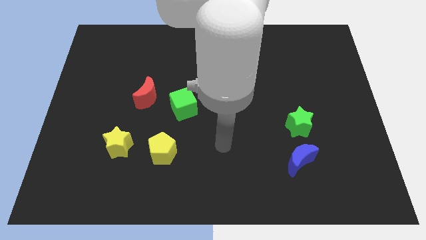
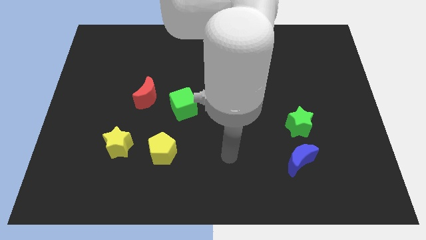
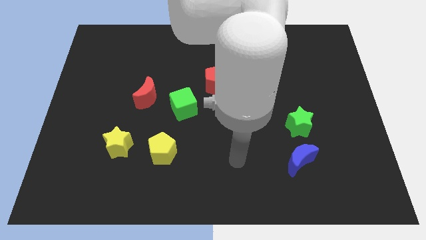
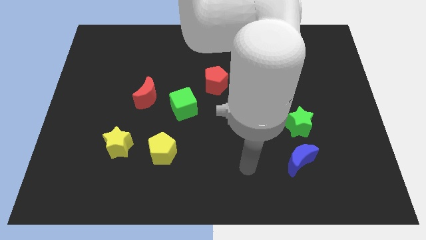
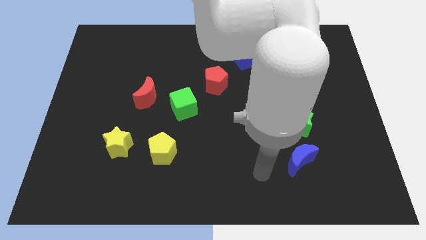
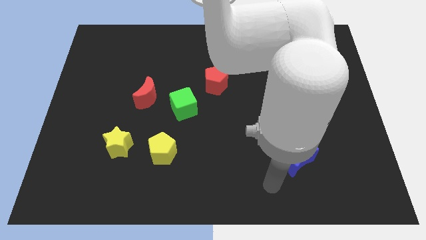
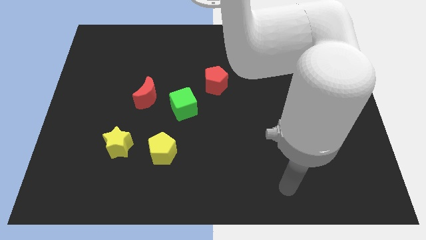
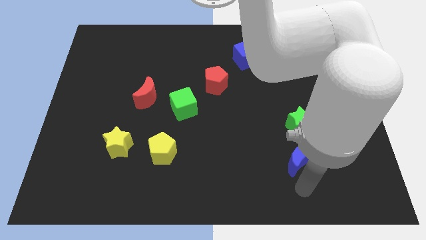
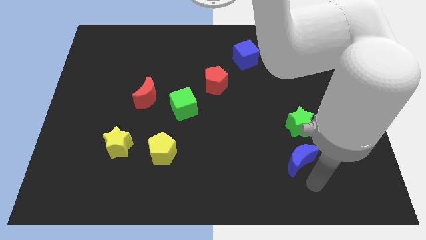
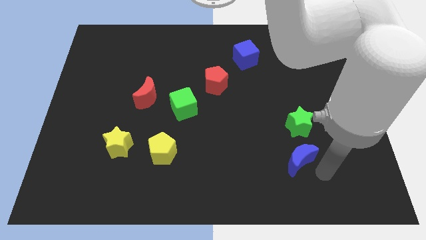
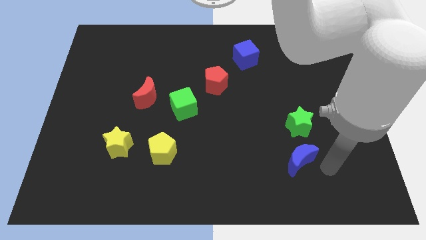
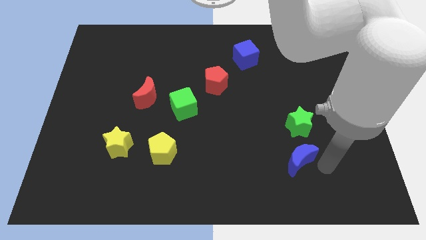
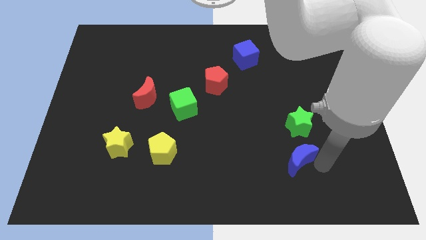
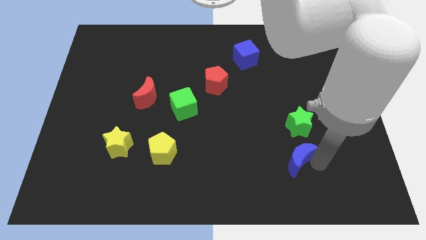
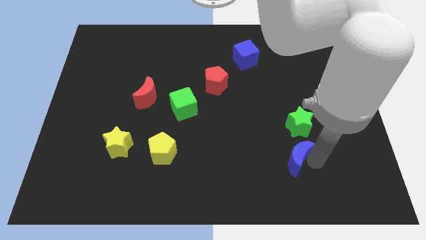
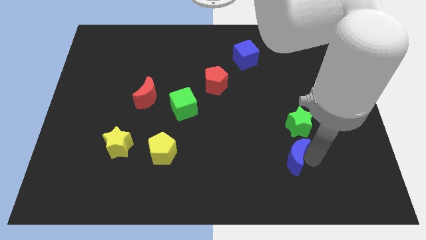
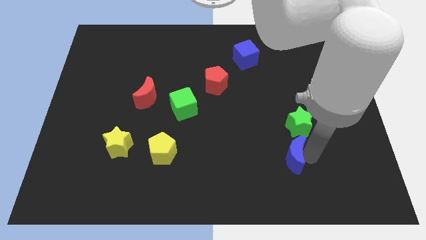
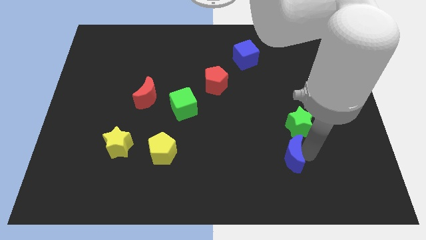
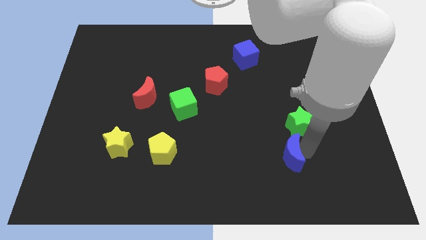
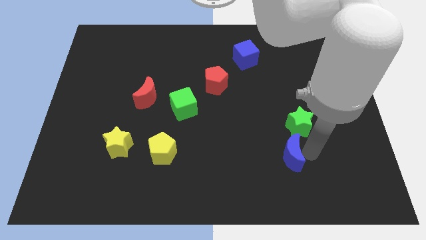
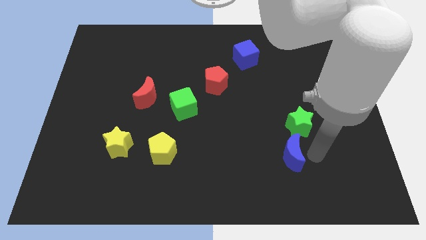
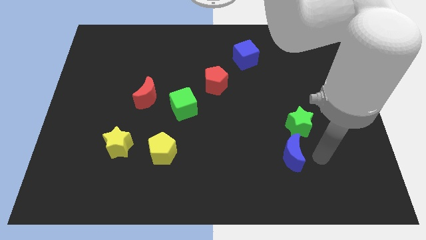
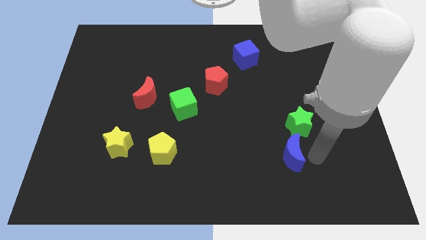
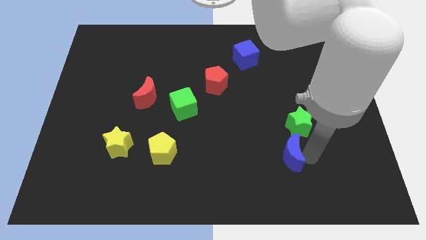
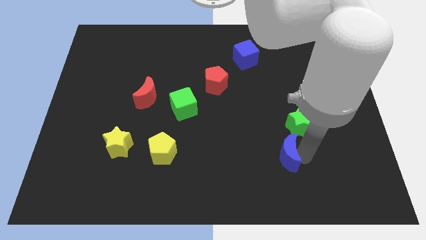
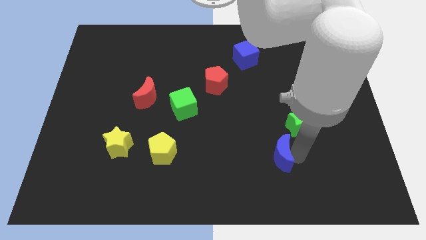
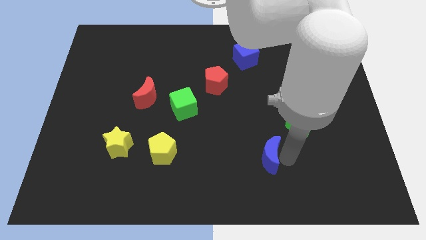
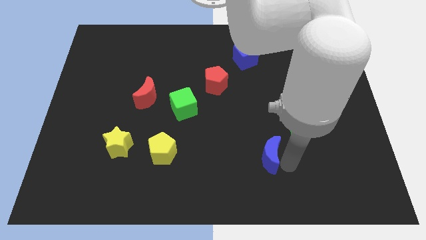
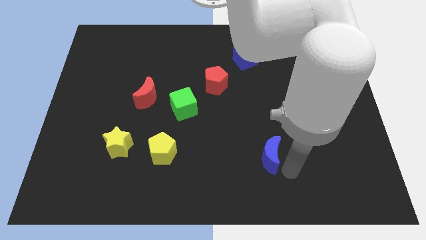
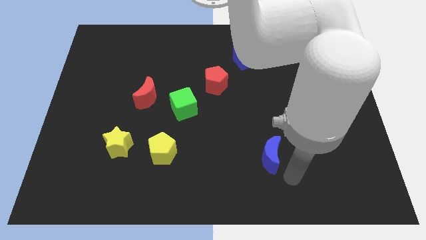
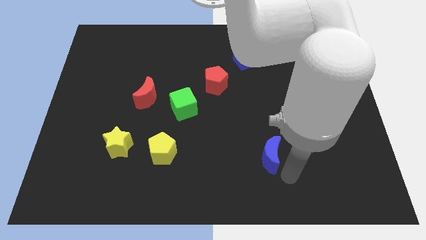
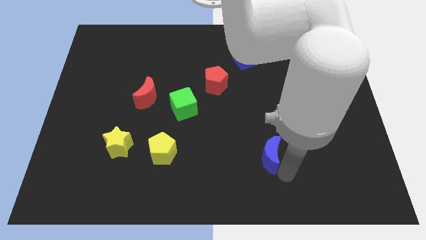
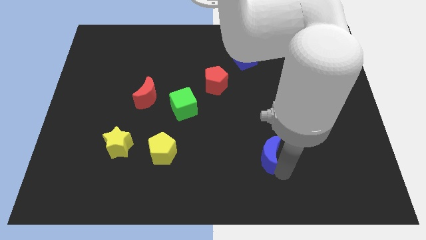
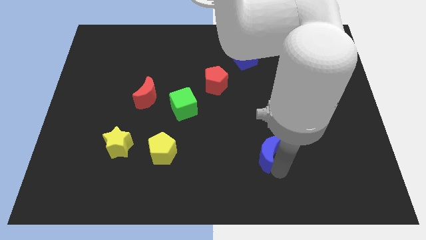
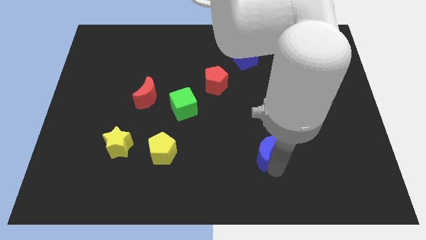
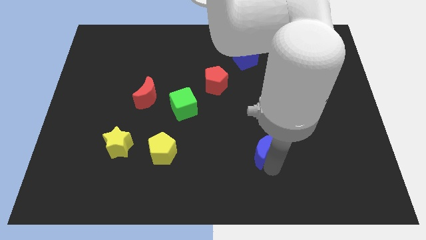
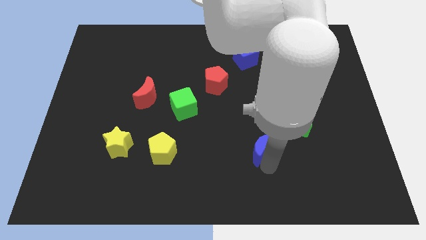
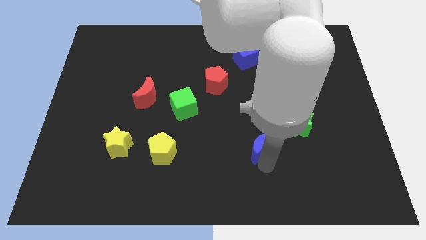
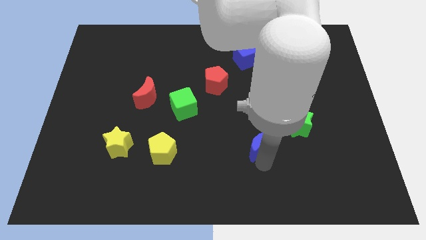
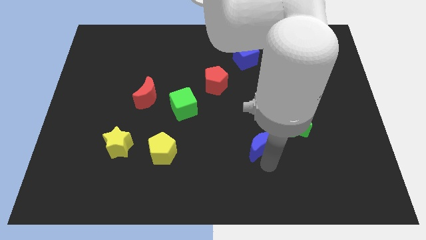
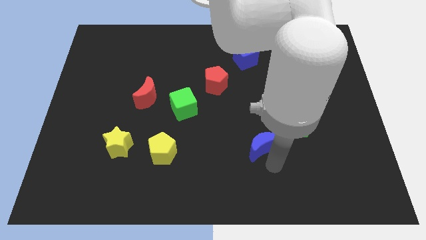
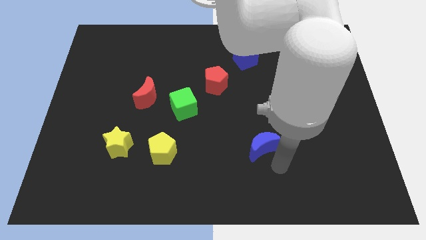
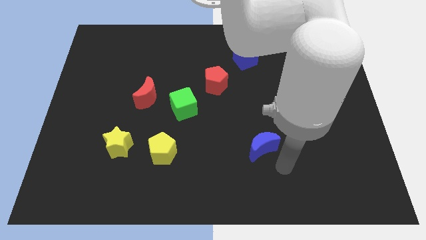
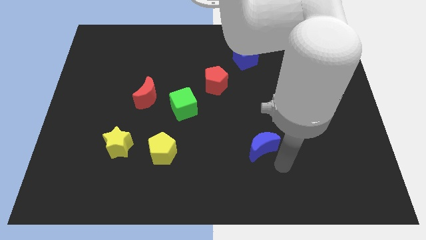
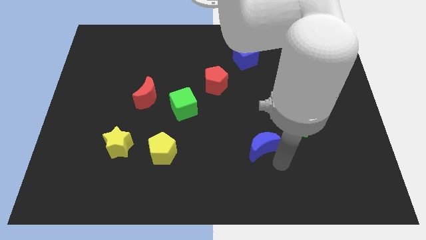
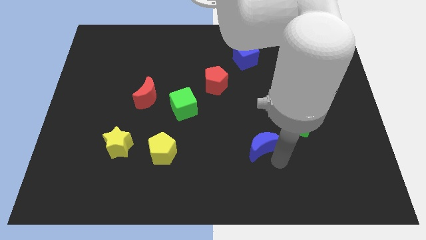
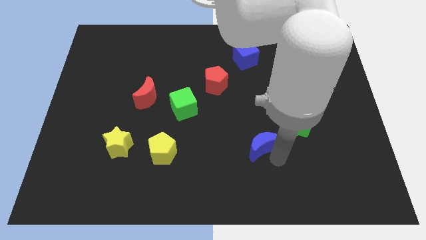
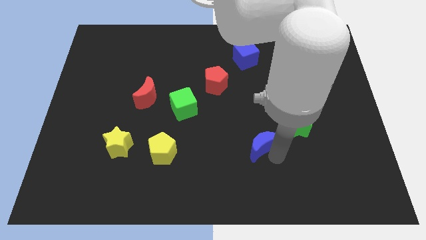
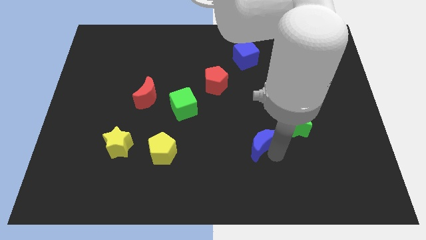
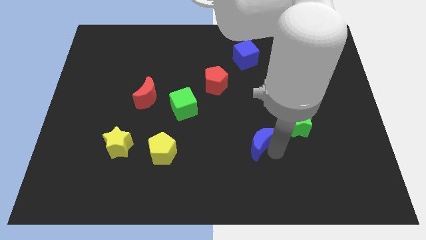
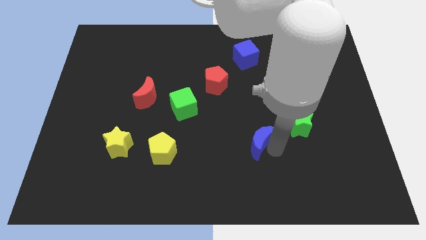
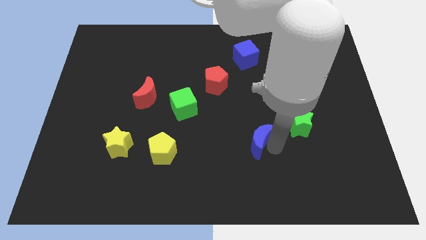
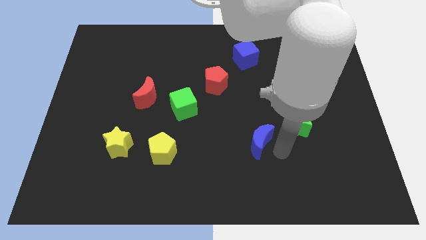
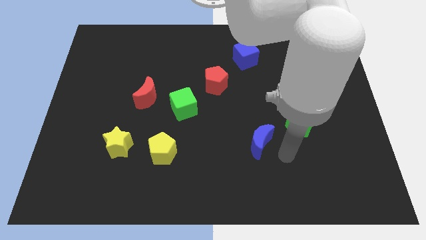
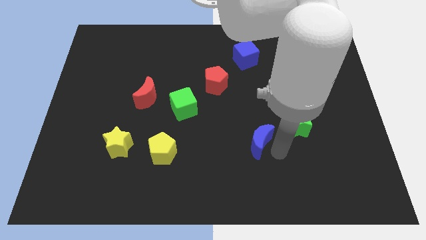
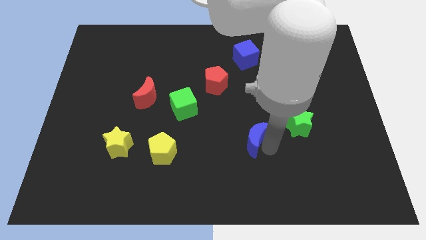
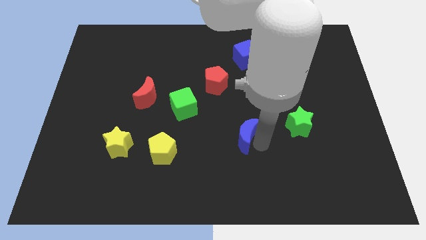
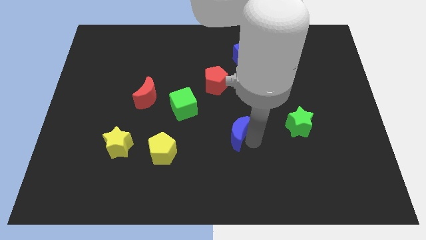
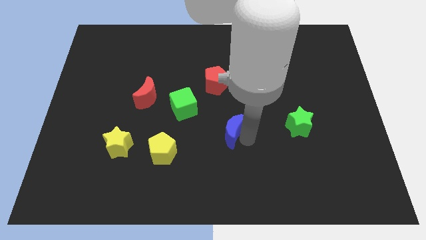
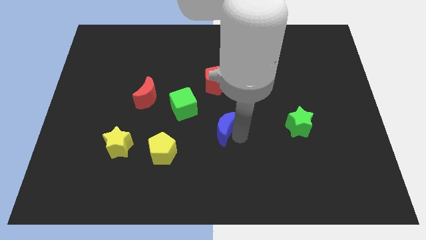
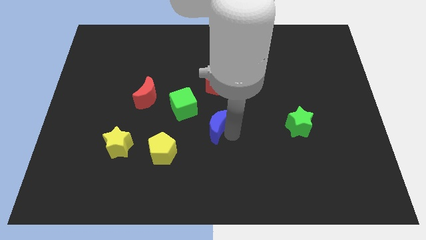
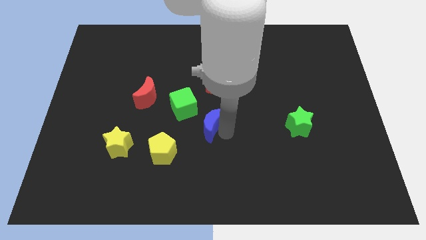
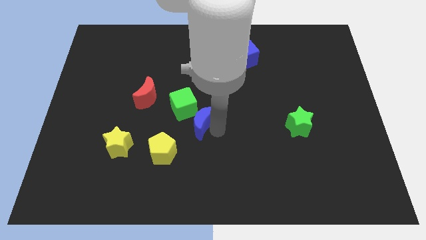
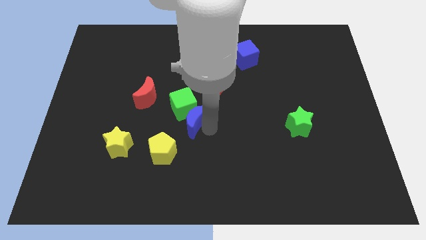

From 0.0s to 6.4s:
push the blue moon to the green cube

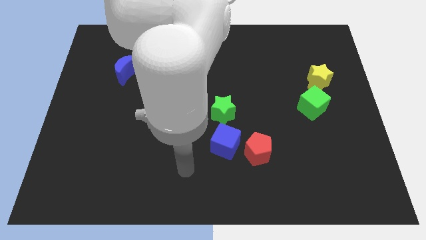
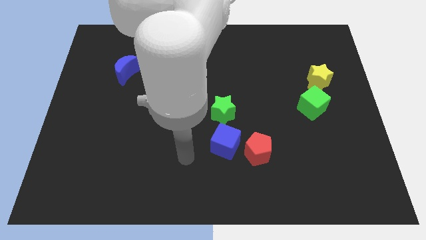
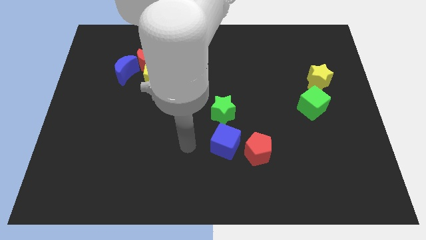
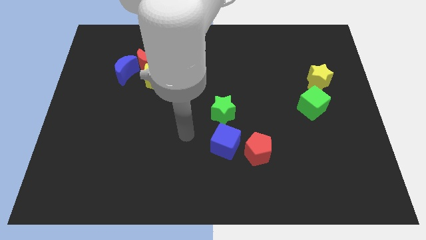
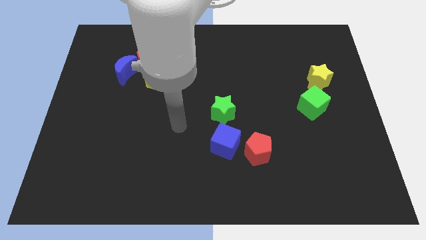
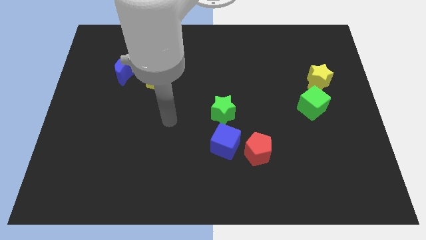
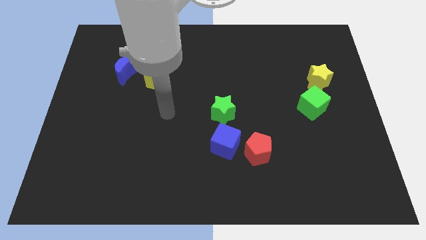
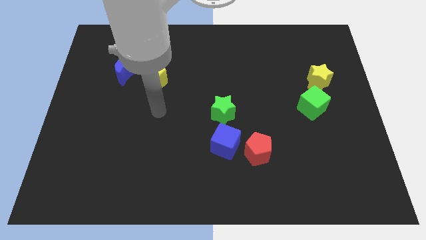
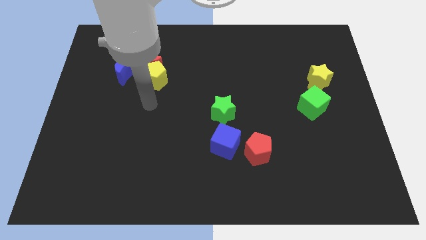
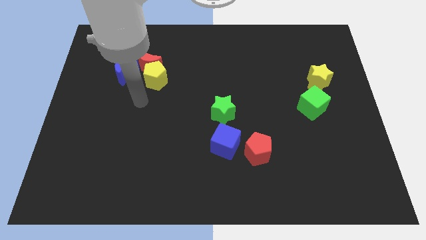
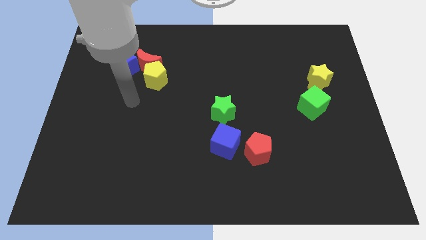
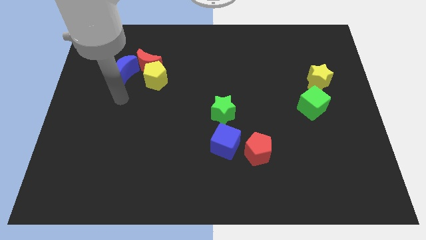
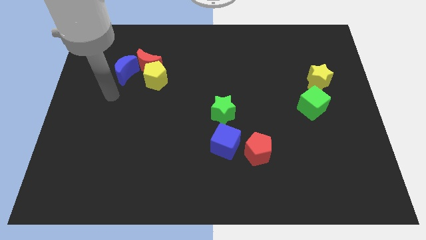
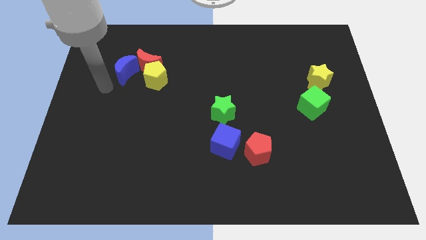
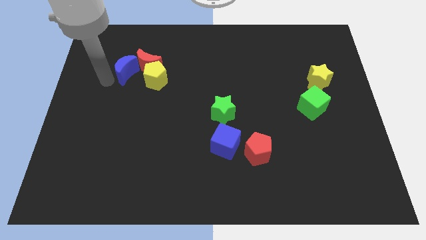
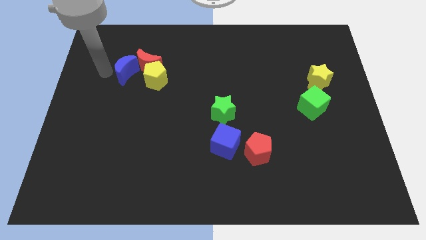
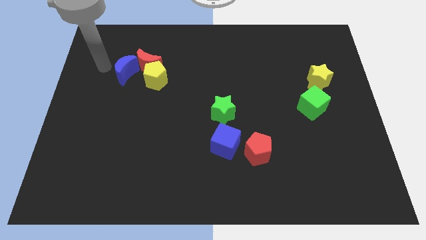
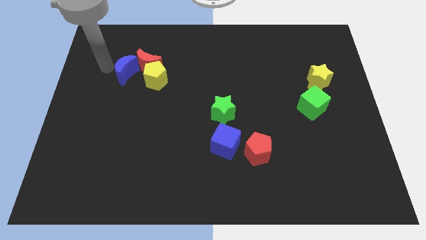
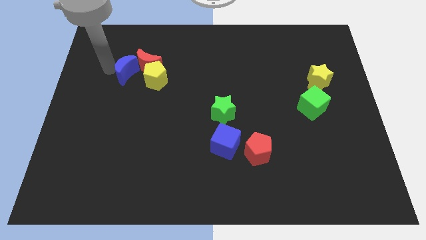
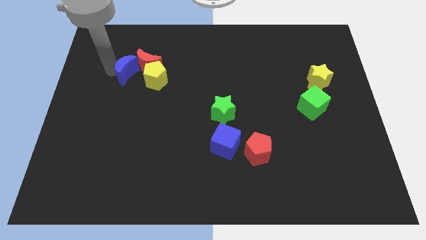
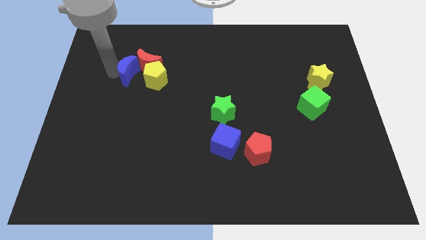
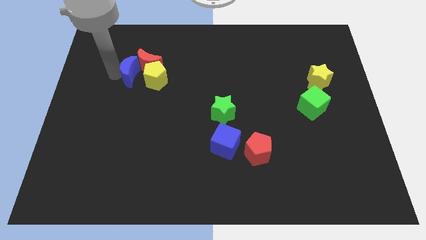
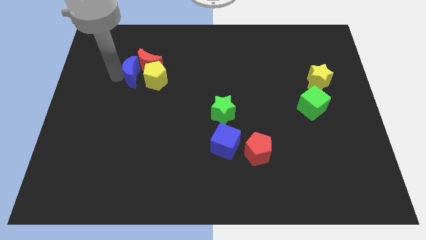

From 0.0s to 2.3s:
slide the blue moon next to the yellow pentagon
